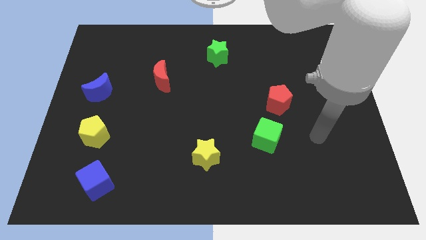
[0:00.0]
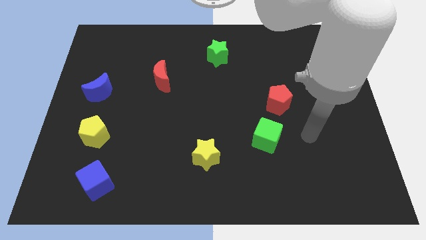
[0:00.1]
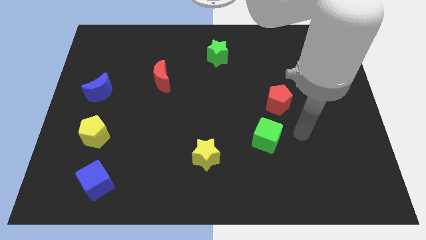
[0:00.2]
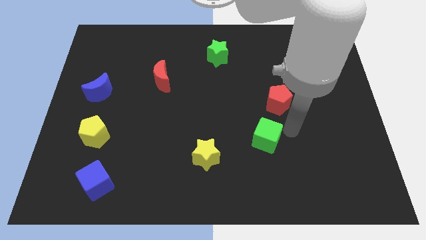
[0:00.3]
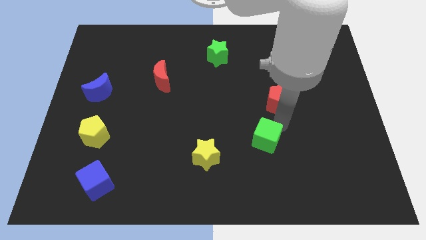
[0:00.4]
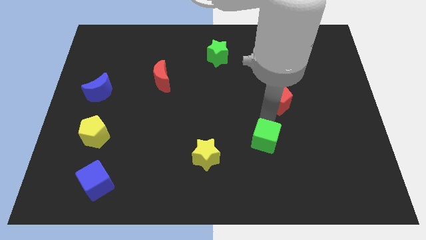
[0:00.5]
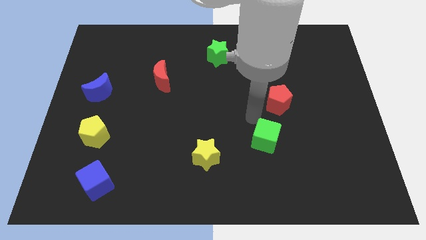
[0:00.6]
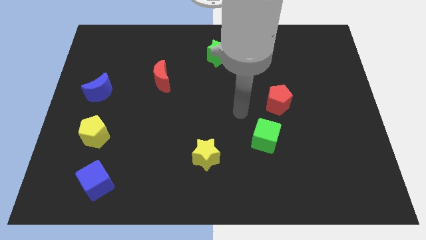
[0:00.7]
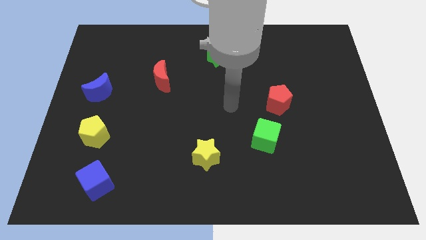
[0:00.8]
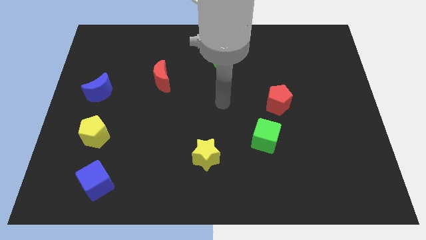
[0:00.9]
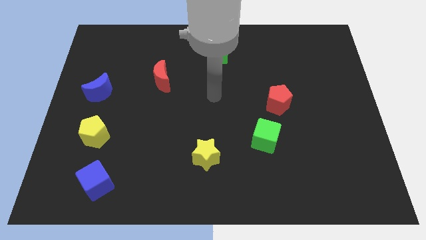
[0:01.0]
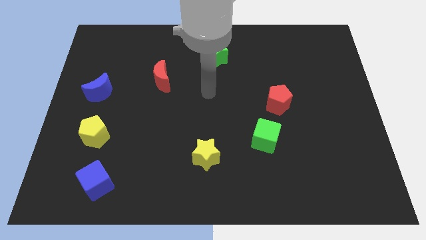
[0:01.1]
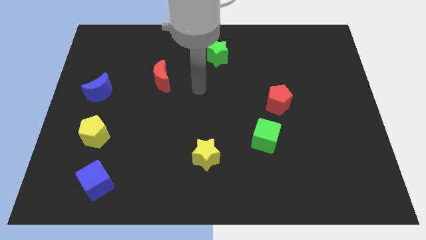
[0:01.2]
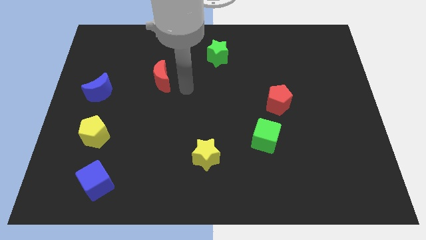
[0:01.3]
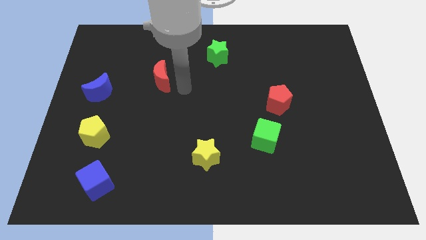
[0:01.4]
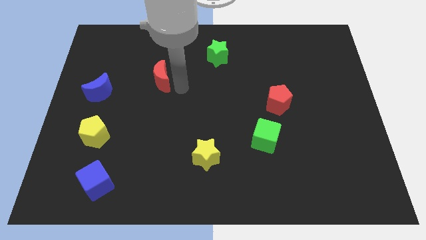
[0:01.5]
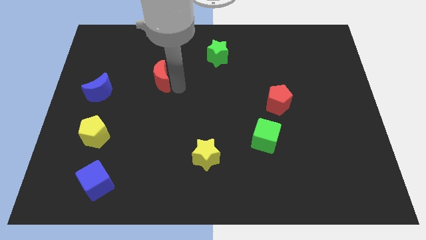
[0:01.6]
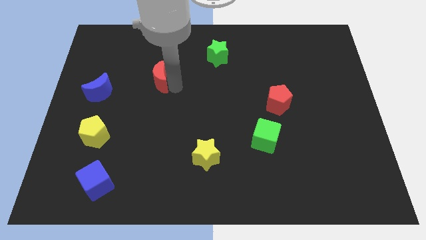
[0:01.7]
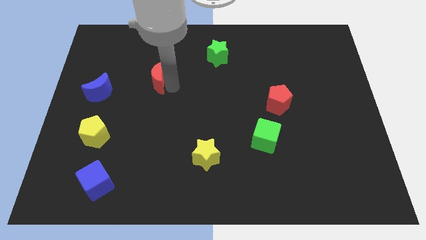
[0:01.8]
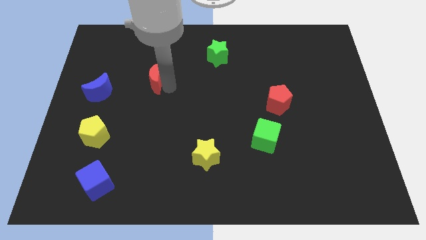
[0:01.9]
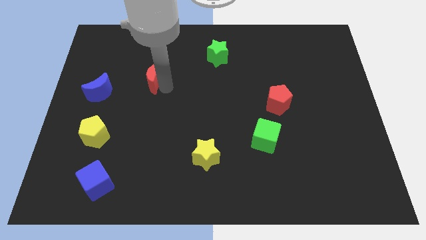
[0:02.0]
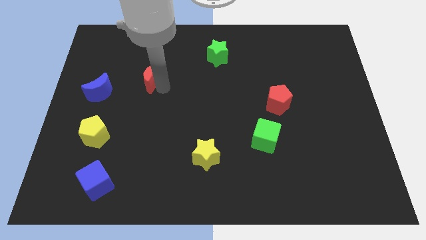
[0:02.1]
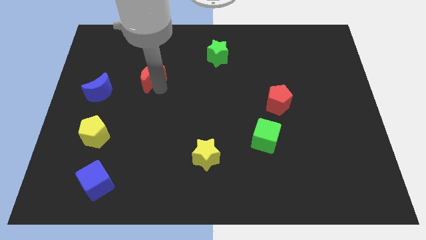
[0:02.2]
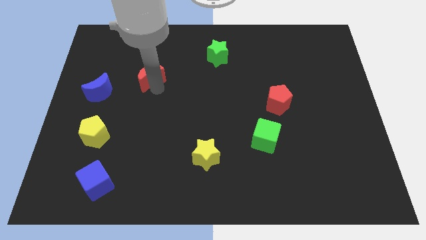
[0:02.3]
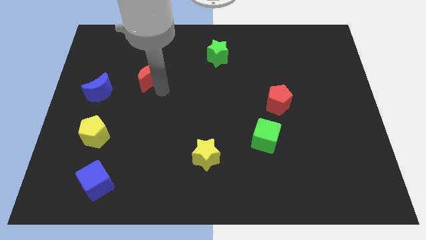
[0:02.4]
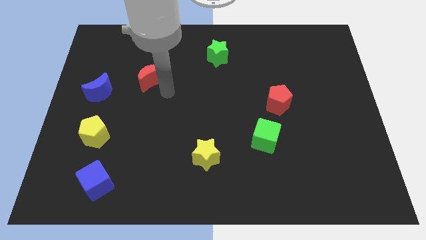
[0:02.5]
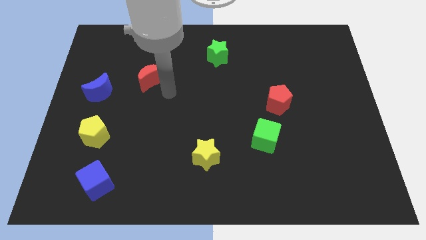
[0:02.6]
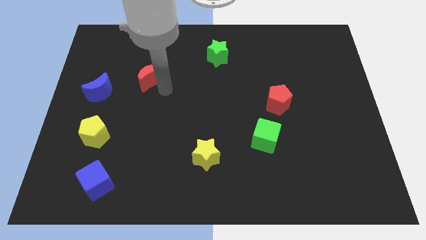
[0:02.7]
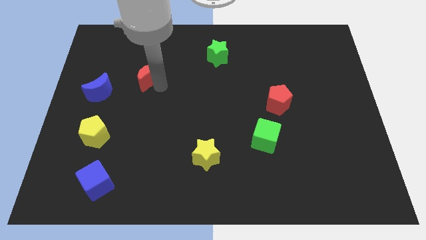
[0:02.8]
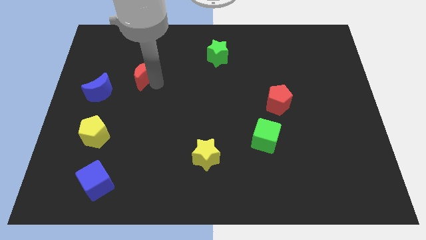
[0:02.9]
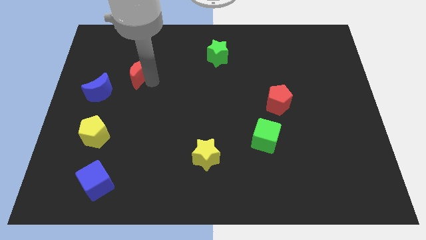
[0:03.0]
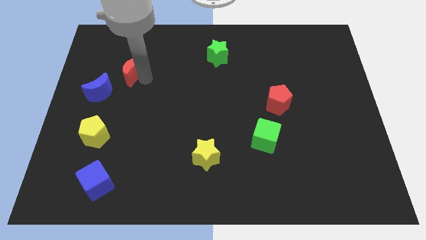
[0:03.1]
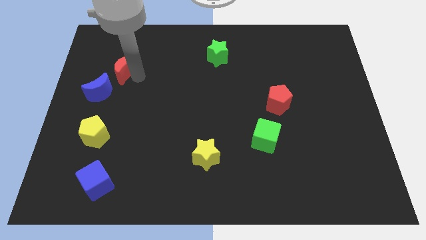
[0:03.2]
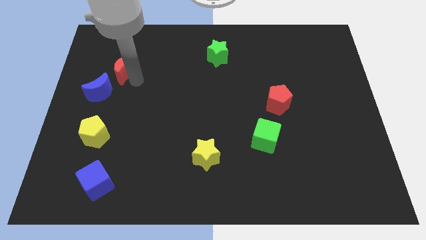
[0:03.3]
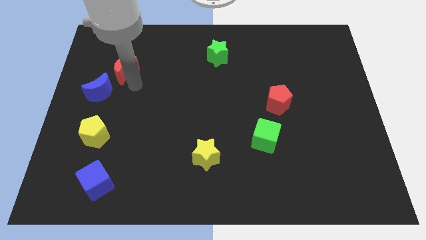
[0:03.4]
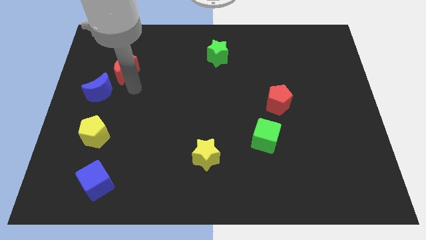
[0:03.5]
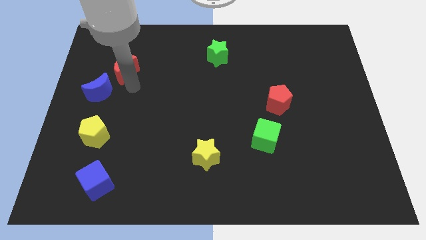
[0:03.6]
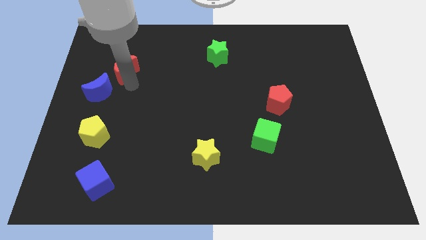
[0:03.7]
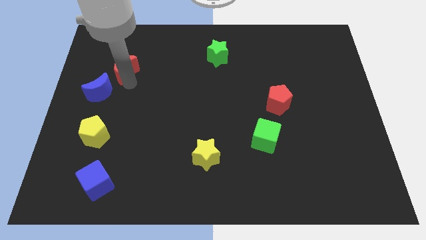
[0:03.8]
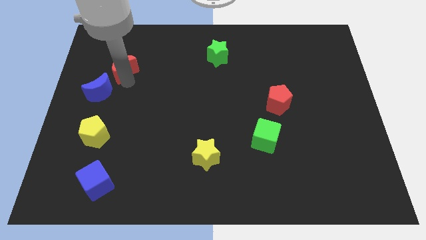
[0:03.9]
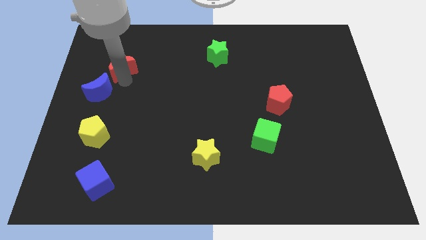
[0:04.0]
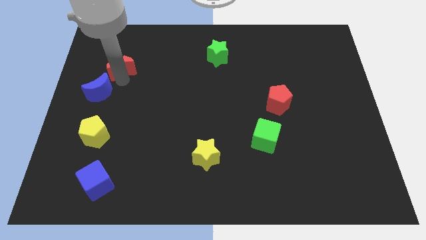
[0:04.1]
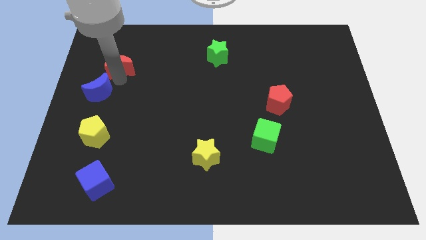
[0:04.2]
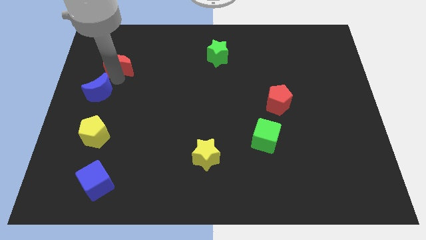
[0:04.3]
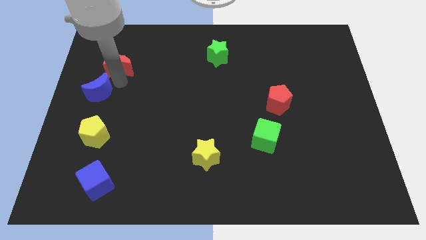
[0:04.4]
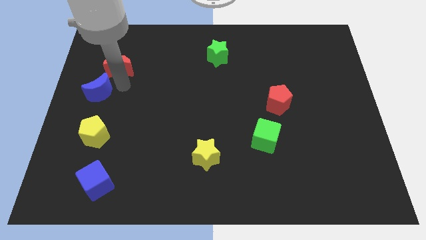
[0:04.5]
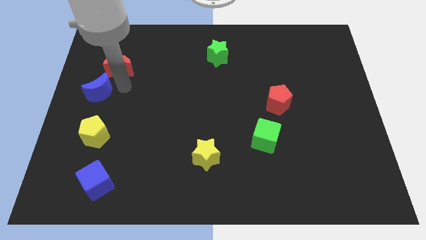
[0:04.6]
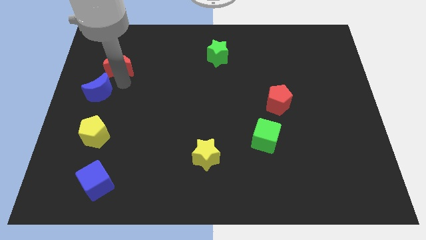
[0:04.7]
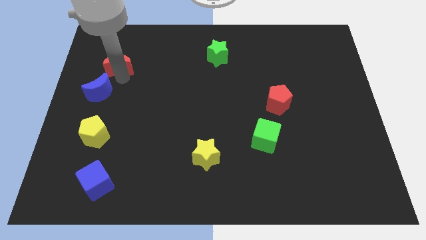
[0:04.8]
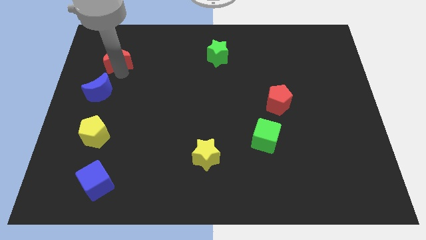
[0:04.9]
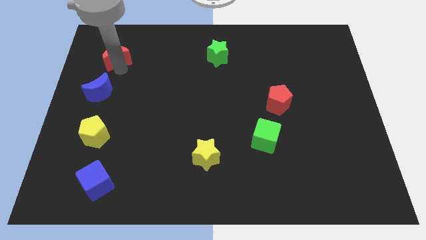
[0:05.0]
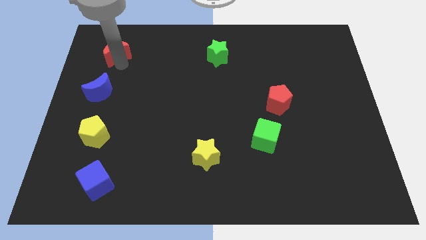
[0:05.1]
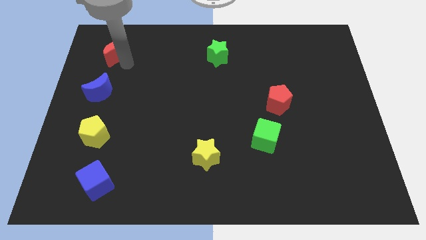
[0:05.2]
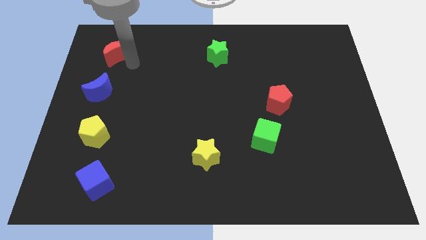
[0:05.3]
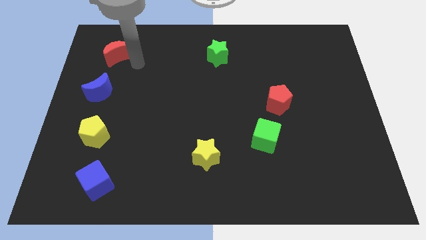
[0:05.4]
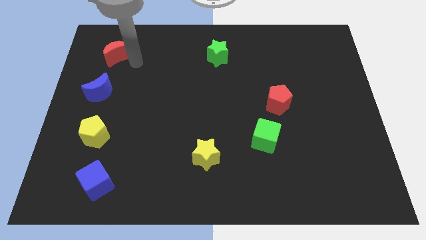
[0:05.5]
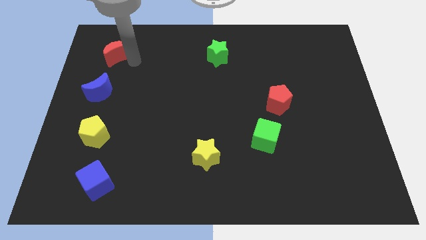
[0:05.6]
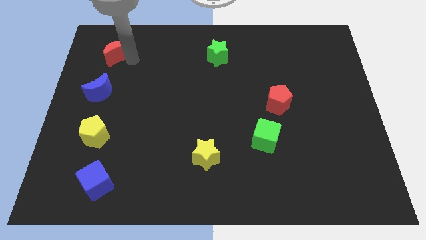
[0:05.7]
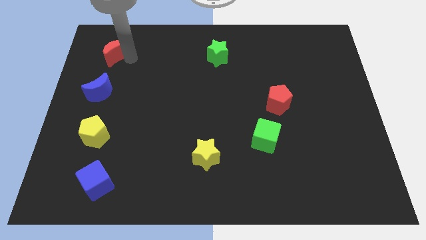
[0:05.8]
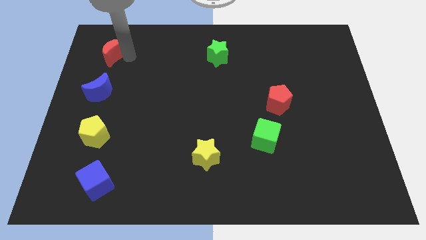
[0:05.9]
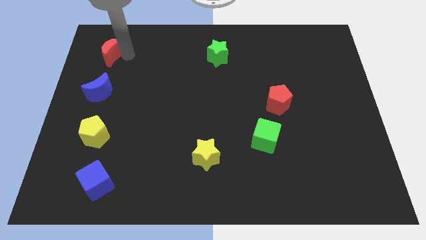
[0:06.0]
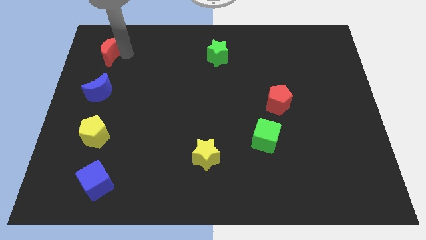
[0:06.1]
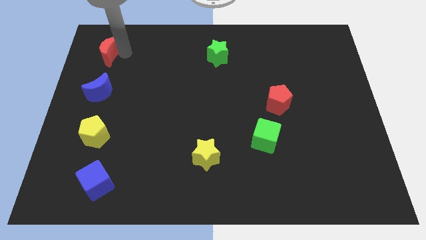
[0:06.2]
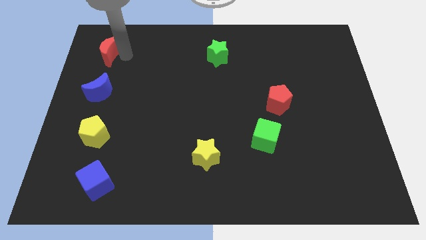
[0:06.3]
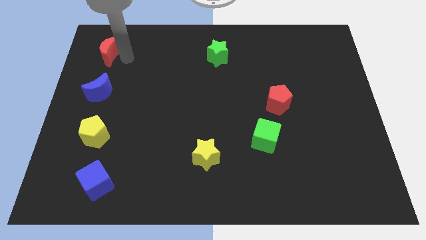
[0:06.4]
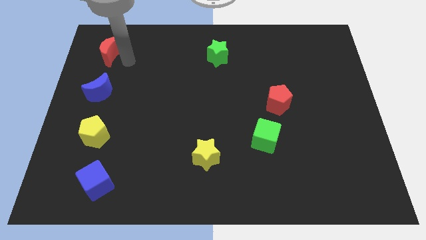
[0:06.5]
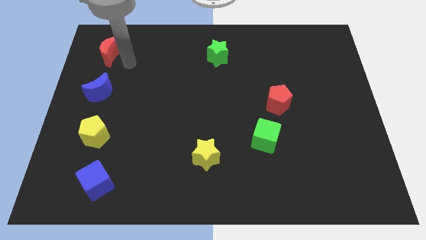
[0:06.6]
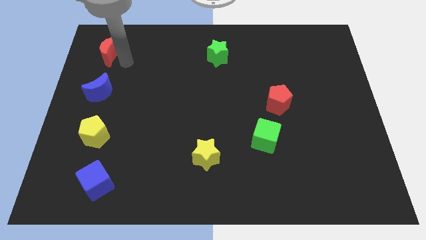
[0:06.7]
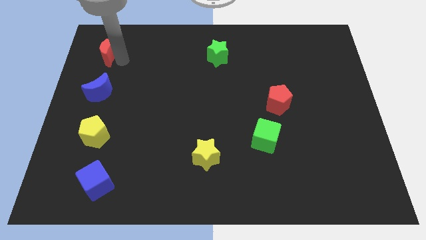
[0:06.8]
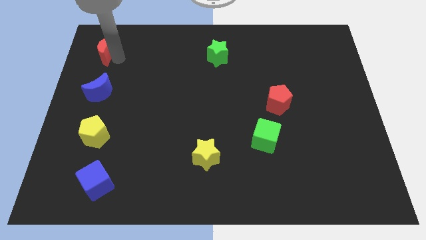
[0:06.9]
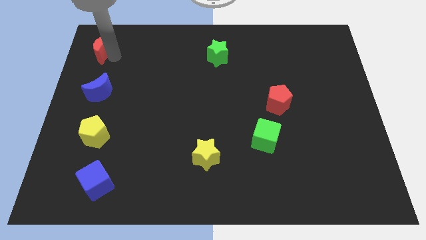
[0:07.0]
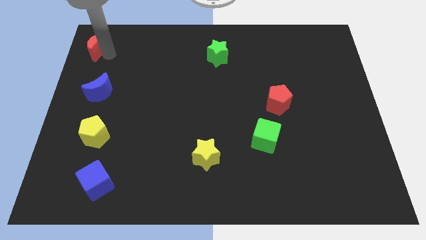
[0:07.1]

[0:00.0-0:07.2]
move the red moon to the top left
